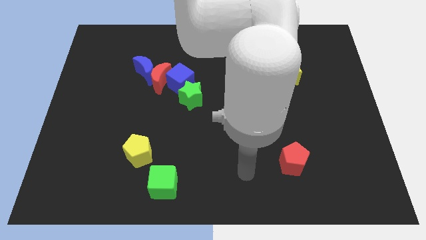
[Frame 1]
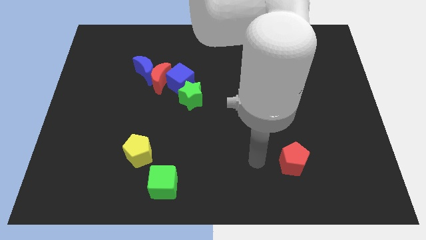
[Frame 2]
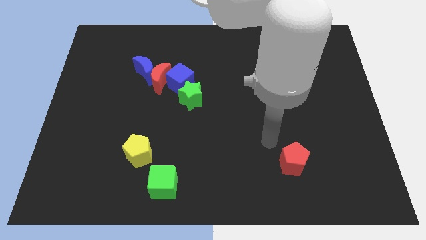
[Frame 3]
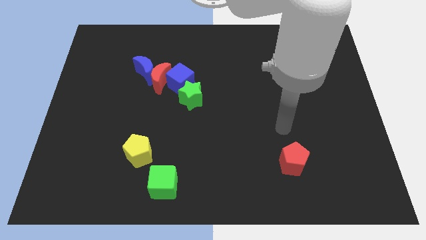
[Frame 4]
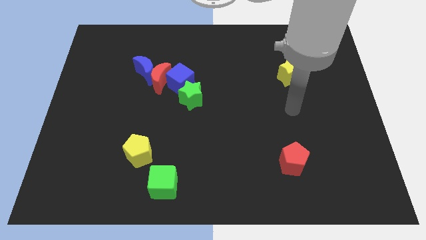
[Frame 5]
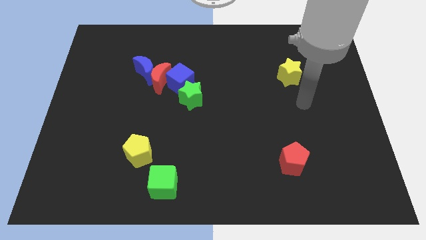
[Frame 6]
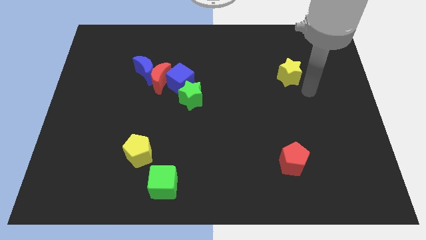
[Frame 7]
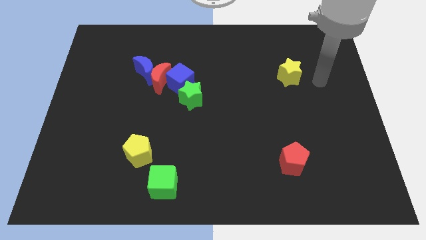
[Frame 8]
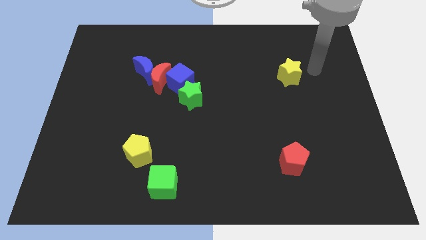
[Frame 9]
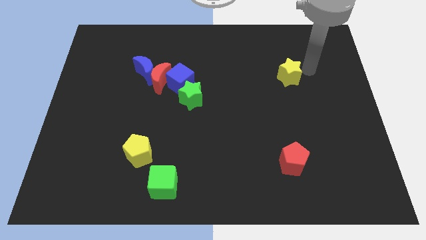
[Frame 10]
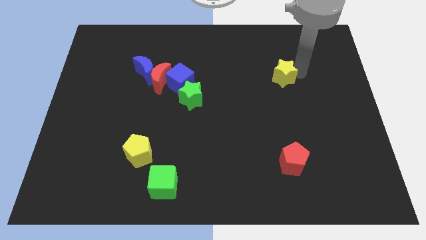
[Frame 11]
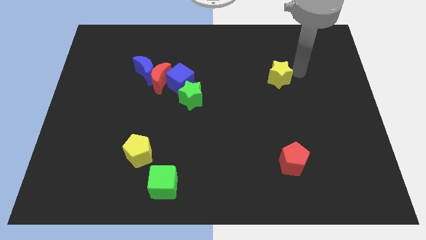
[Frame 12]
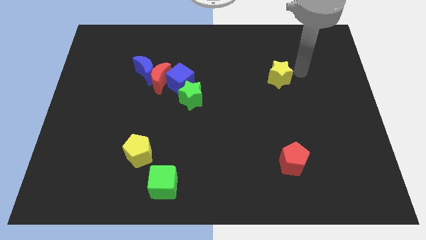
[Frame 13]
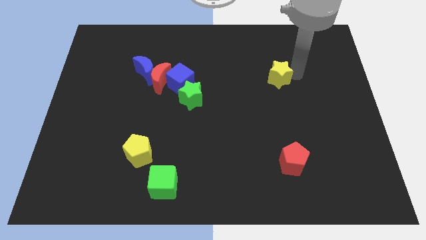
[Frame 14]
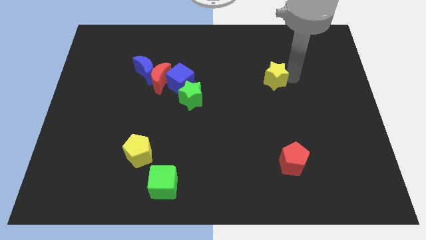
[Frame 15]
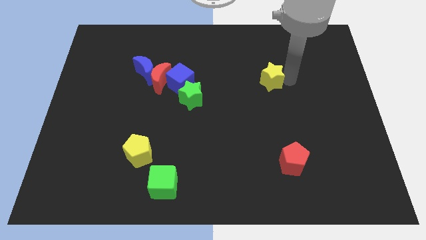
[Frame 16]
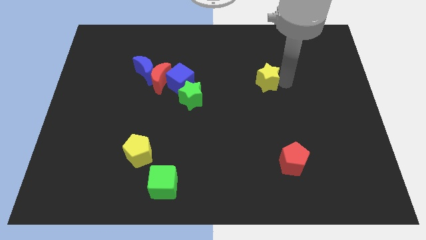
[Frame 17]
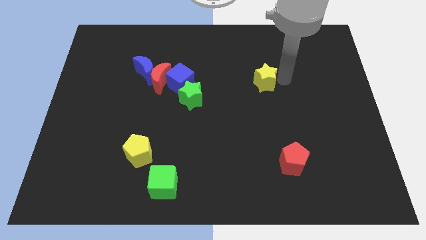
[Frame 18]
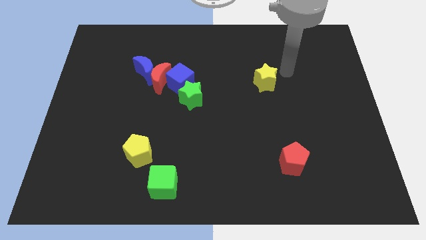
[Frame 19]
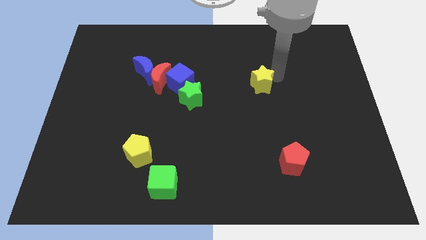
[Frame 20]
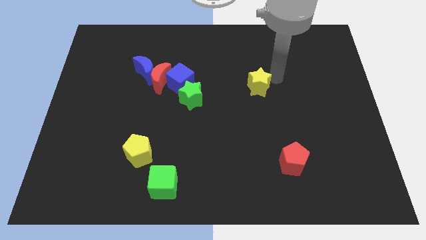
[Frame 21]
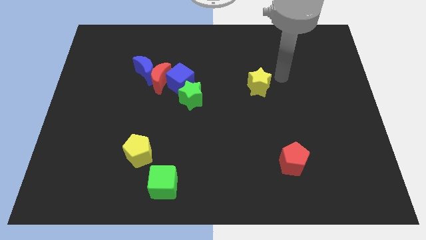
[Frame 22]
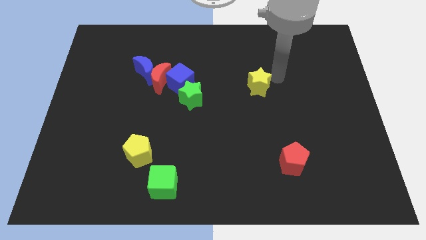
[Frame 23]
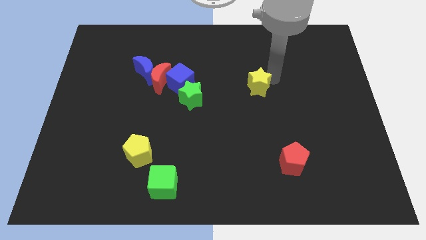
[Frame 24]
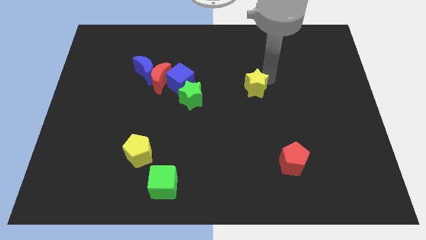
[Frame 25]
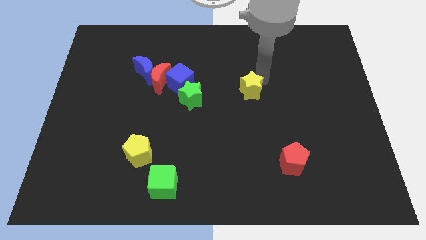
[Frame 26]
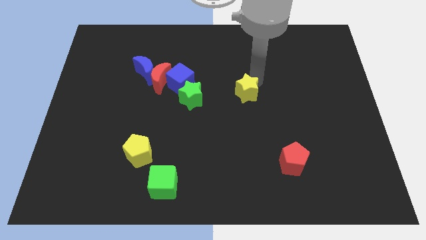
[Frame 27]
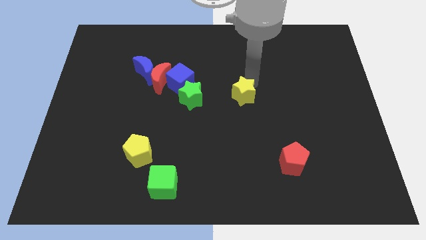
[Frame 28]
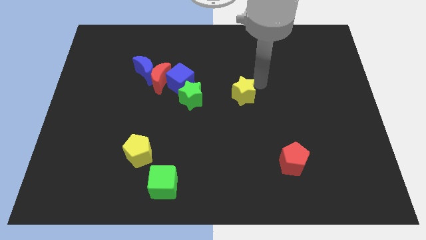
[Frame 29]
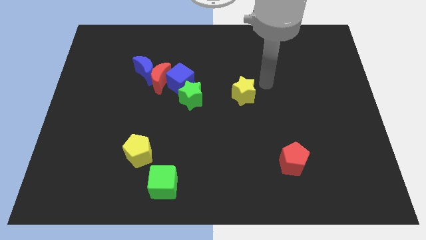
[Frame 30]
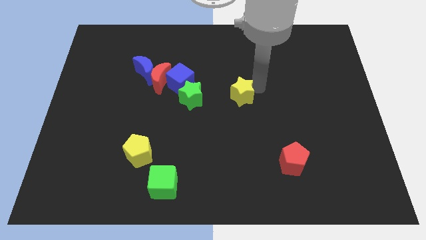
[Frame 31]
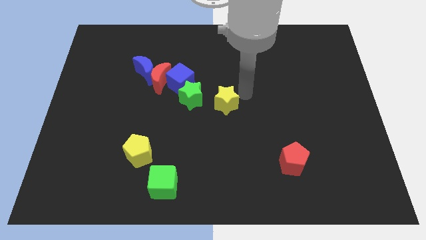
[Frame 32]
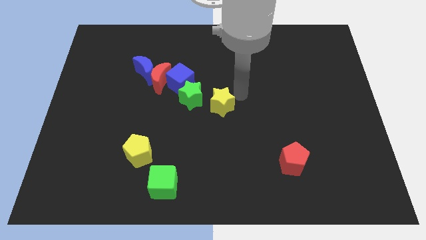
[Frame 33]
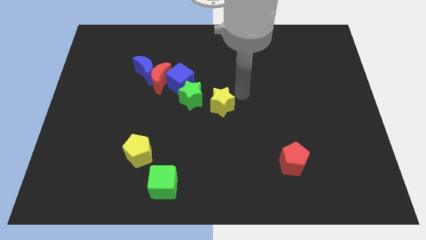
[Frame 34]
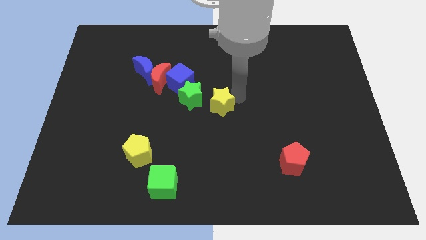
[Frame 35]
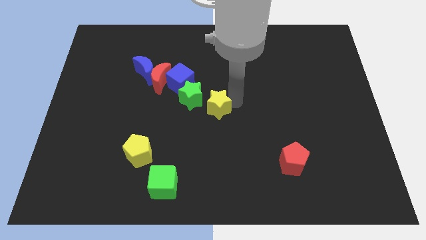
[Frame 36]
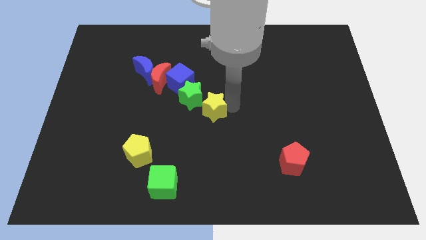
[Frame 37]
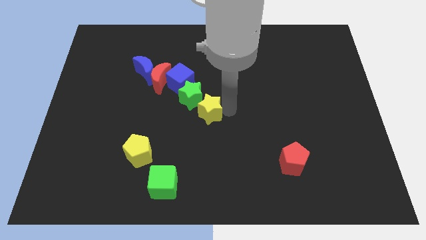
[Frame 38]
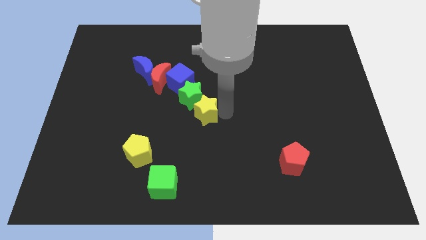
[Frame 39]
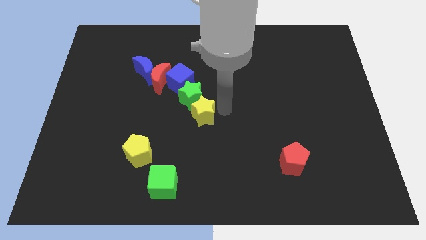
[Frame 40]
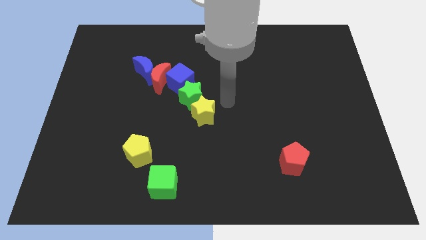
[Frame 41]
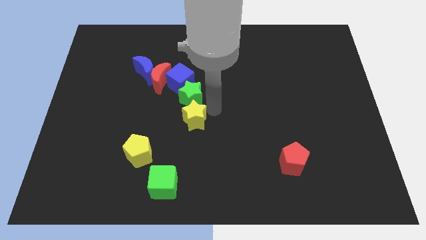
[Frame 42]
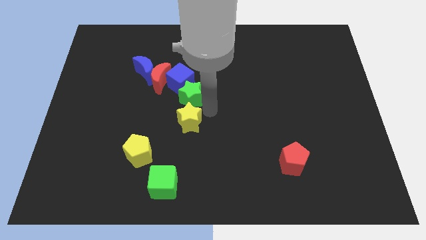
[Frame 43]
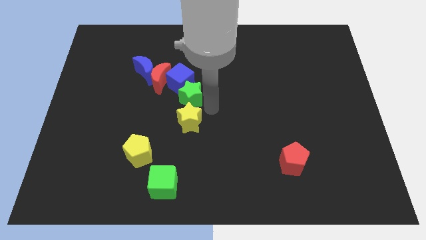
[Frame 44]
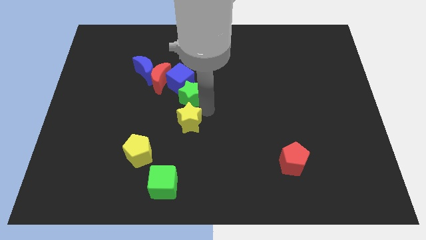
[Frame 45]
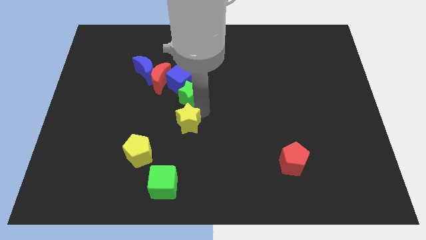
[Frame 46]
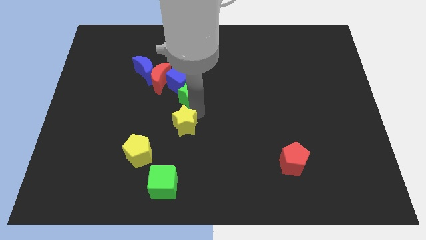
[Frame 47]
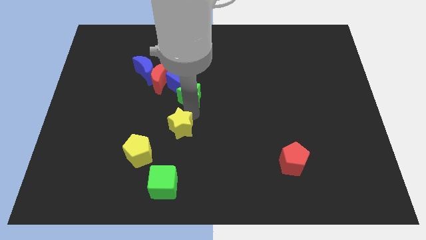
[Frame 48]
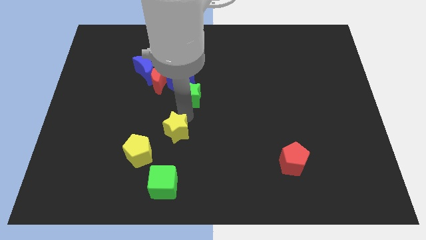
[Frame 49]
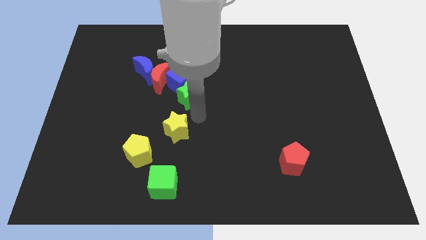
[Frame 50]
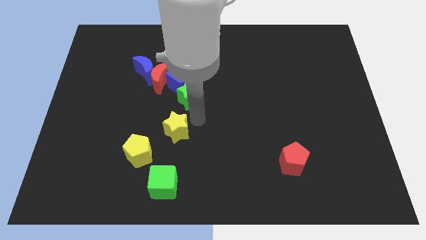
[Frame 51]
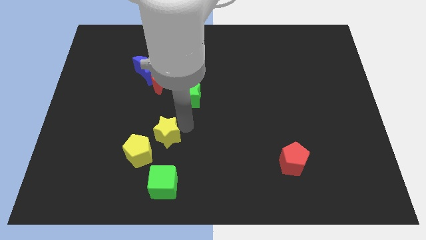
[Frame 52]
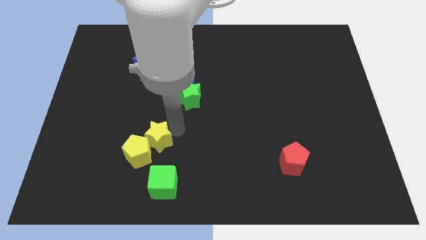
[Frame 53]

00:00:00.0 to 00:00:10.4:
move the yellow star next to the yellow pentagon

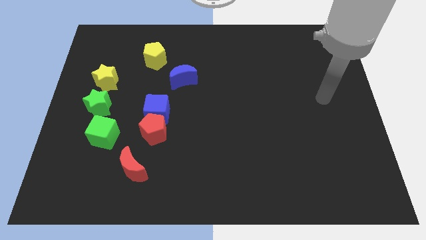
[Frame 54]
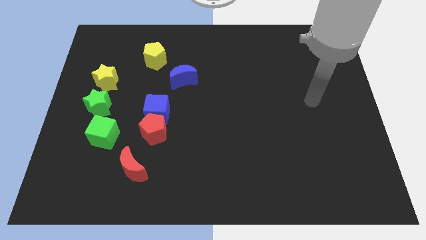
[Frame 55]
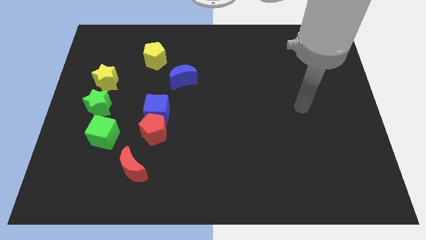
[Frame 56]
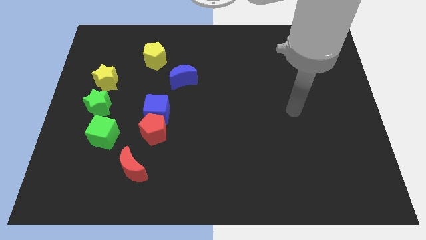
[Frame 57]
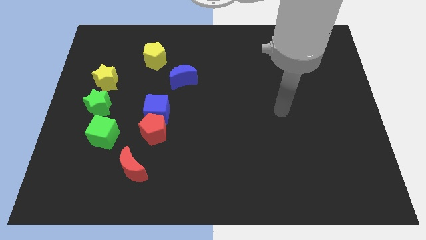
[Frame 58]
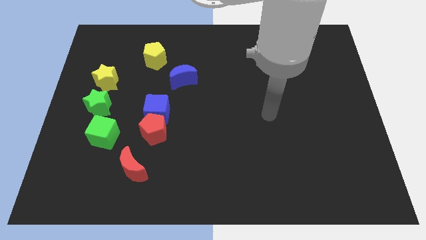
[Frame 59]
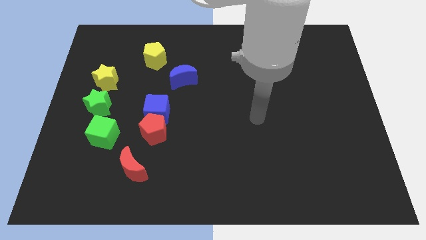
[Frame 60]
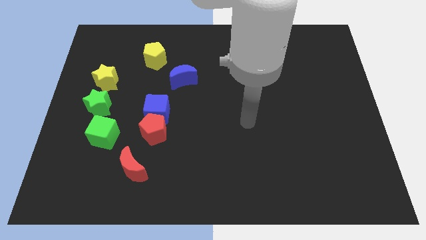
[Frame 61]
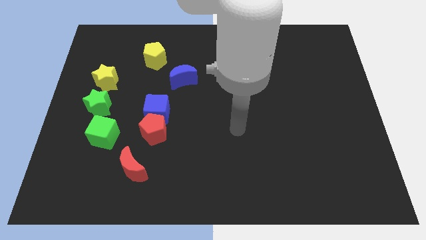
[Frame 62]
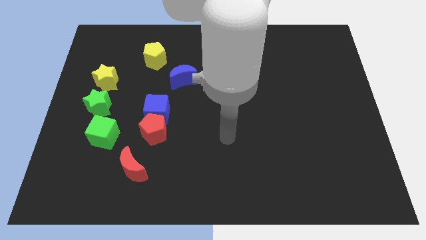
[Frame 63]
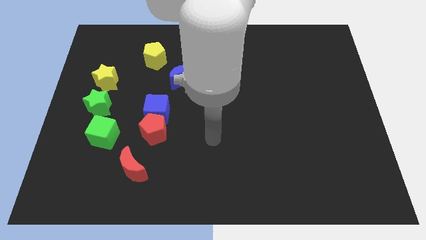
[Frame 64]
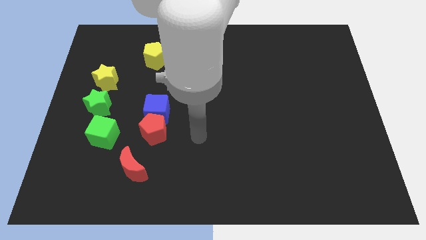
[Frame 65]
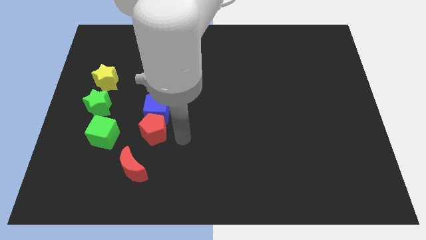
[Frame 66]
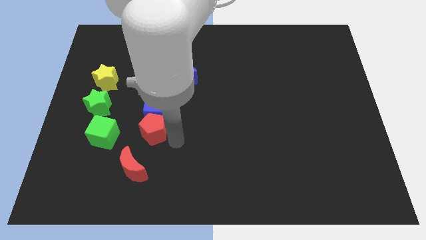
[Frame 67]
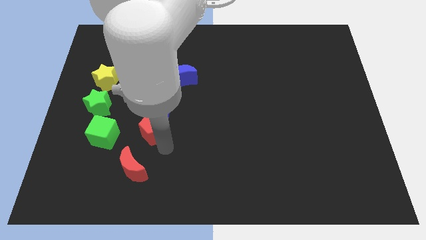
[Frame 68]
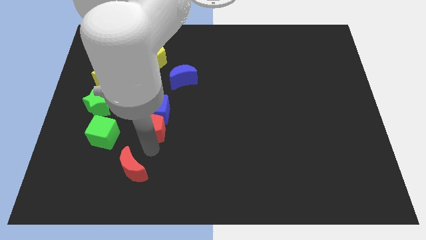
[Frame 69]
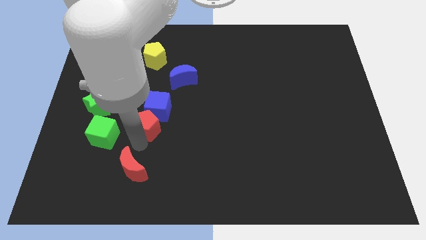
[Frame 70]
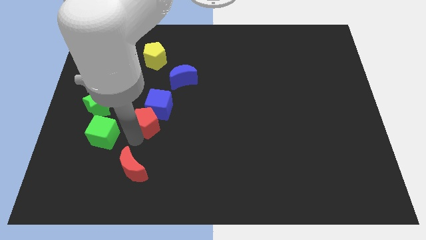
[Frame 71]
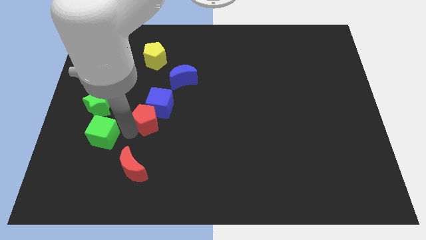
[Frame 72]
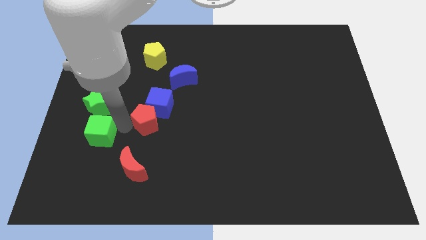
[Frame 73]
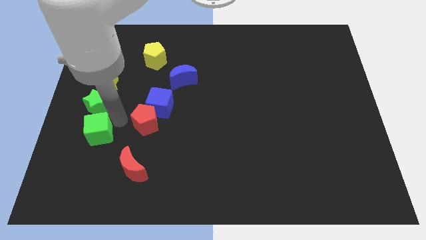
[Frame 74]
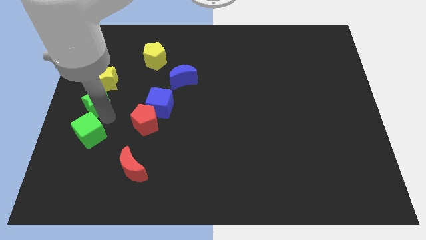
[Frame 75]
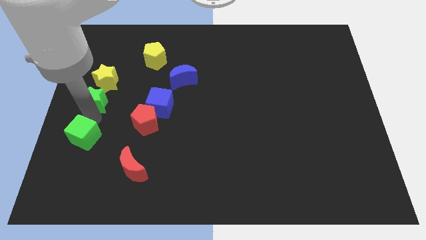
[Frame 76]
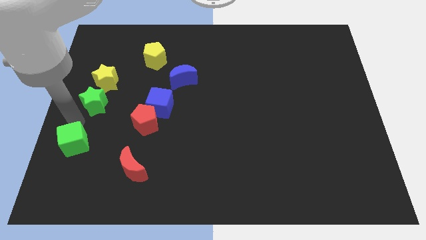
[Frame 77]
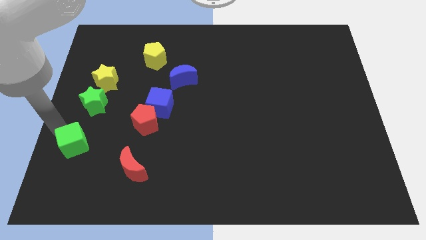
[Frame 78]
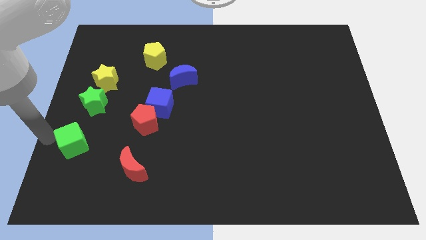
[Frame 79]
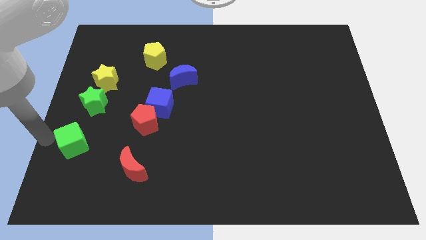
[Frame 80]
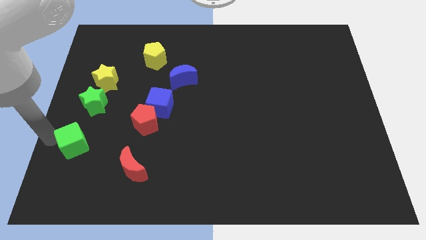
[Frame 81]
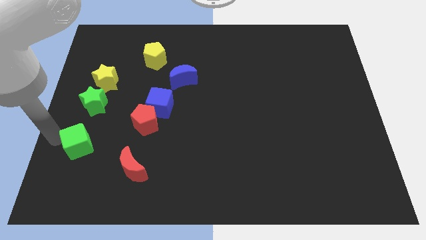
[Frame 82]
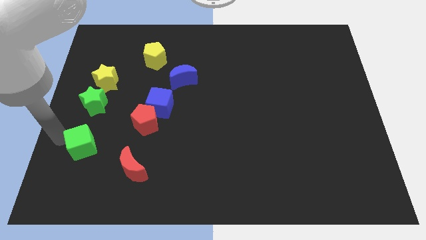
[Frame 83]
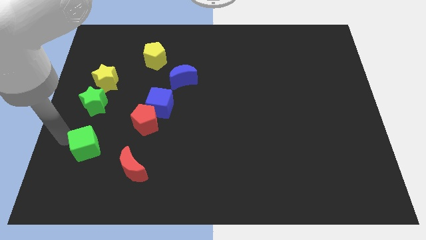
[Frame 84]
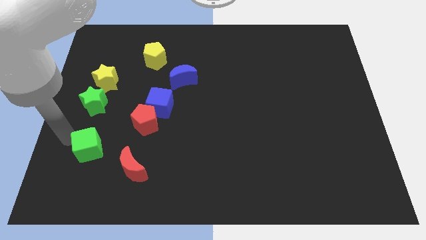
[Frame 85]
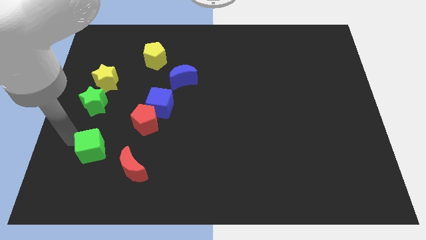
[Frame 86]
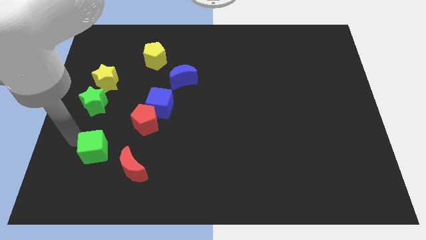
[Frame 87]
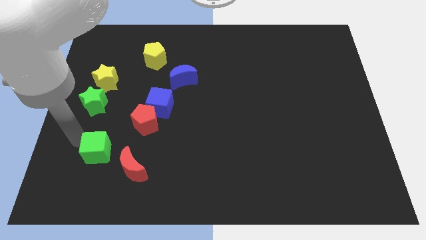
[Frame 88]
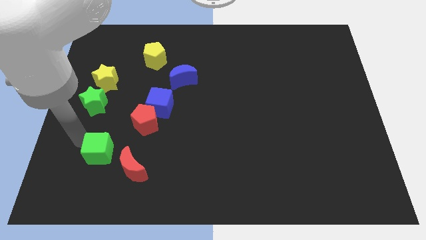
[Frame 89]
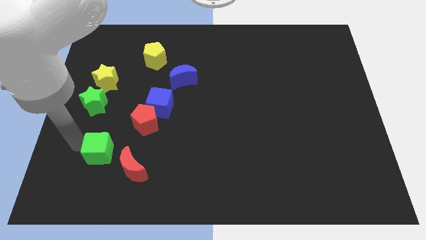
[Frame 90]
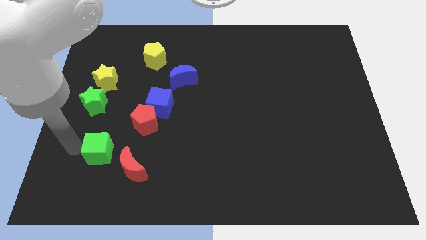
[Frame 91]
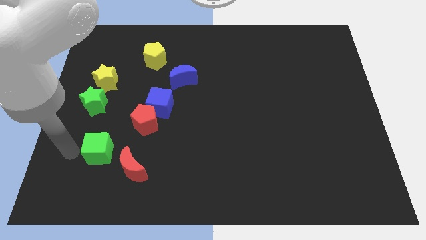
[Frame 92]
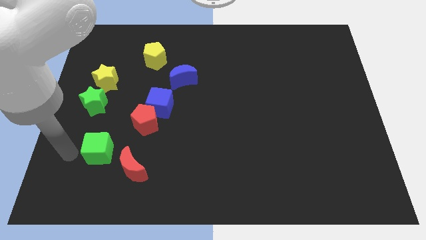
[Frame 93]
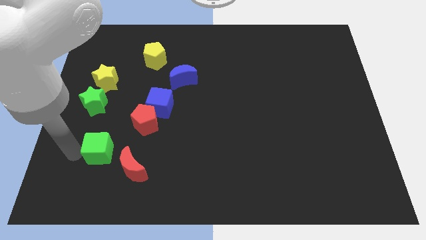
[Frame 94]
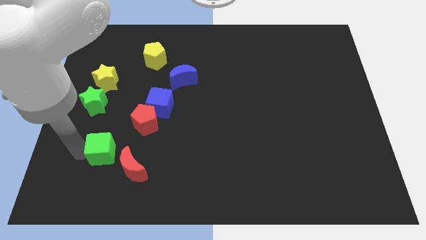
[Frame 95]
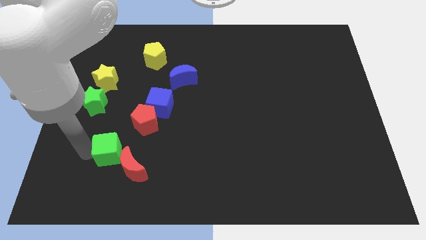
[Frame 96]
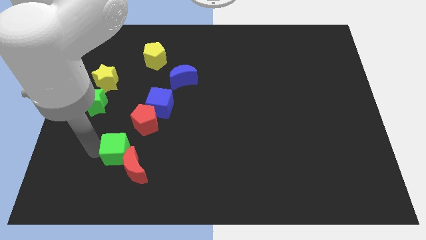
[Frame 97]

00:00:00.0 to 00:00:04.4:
move the green cube towards the red moon
